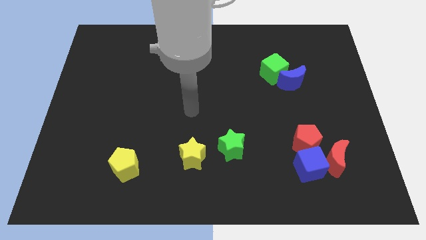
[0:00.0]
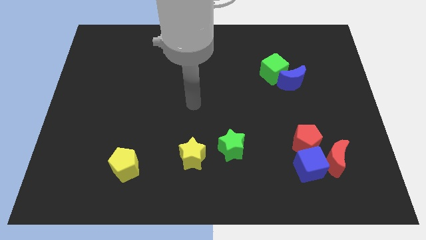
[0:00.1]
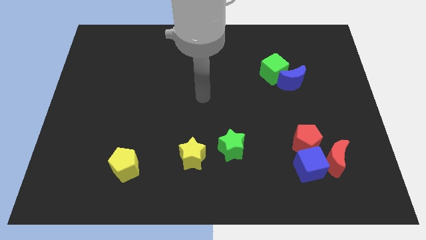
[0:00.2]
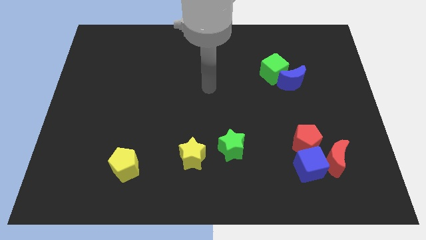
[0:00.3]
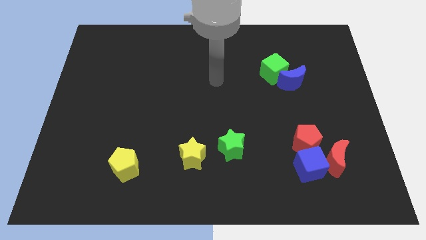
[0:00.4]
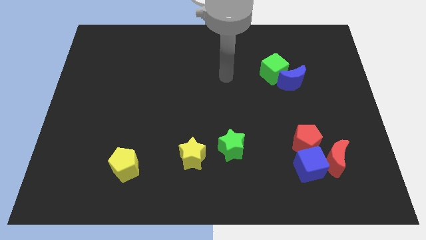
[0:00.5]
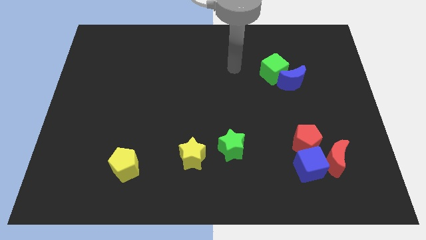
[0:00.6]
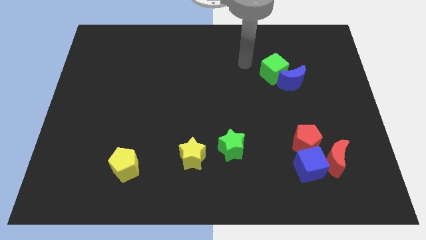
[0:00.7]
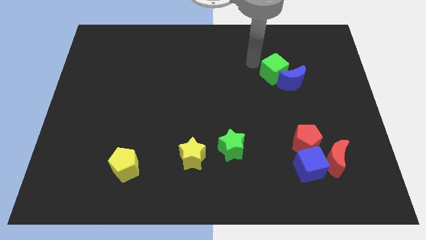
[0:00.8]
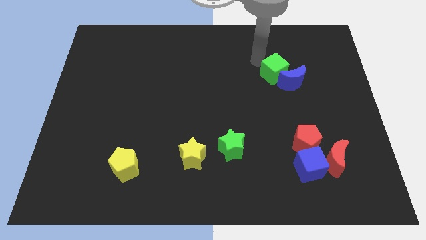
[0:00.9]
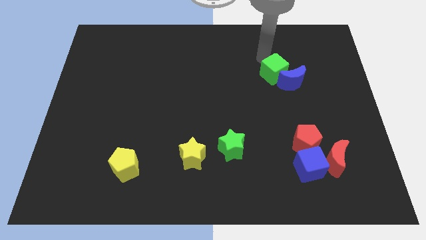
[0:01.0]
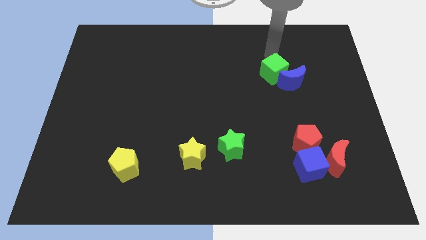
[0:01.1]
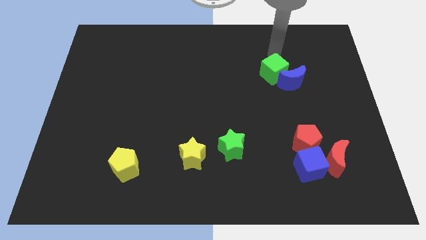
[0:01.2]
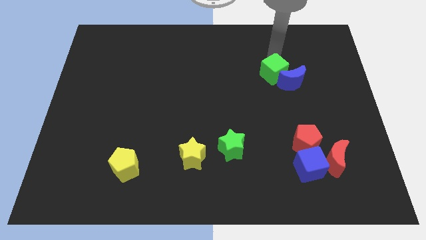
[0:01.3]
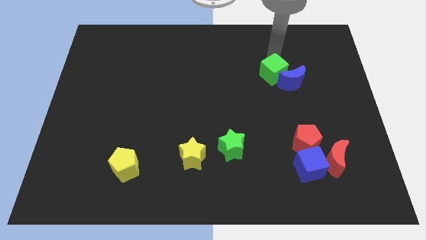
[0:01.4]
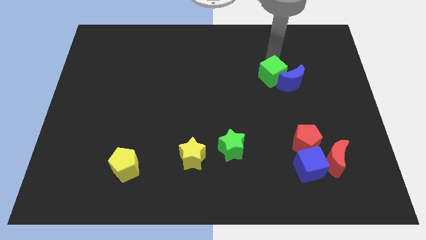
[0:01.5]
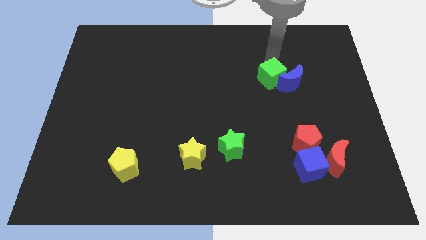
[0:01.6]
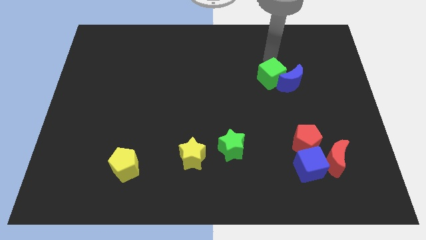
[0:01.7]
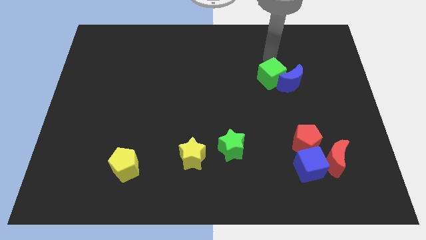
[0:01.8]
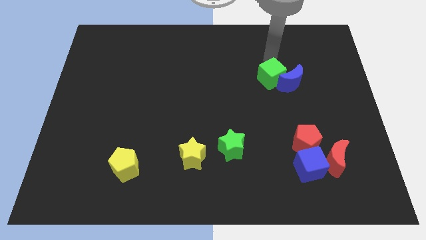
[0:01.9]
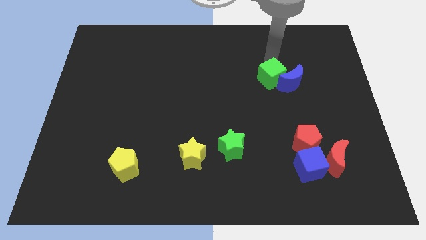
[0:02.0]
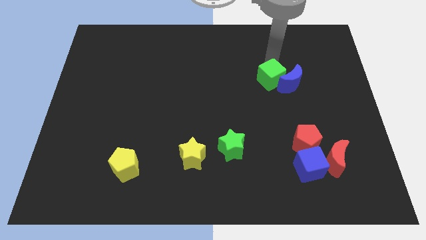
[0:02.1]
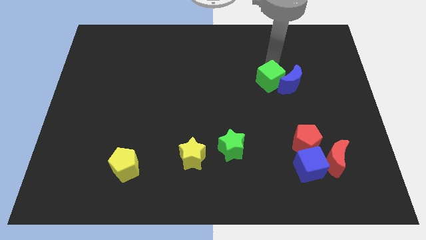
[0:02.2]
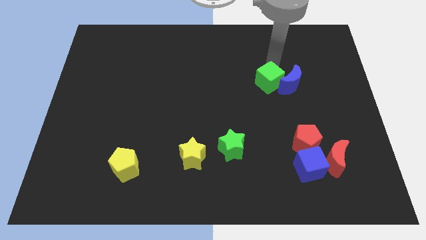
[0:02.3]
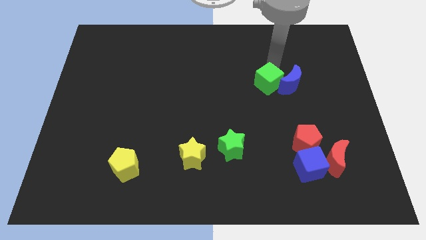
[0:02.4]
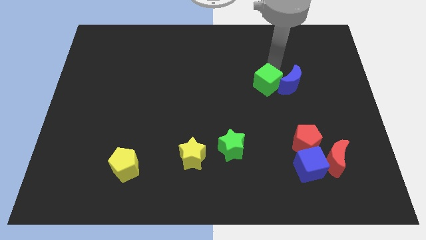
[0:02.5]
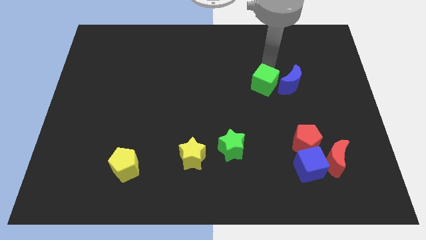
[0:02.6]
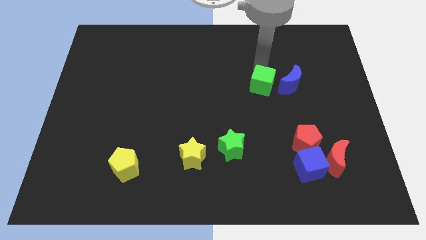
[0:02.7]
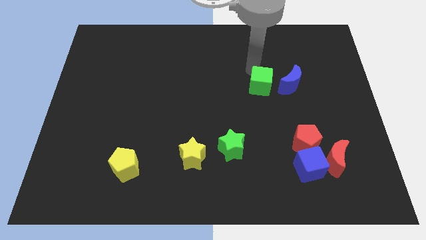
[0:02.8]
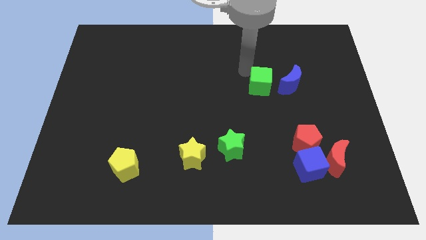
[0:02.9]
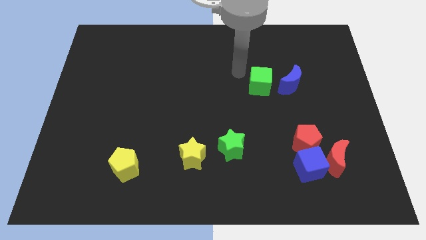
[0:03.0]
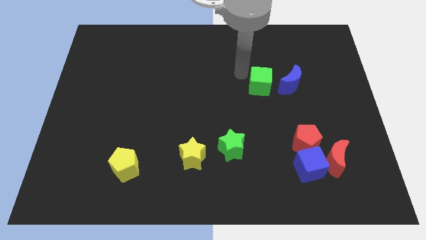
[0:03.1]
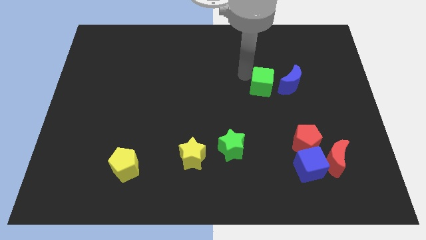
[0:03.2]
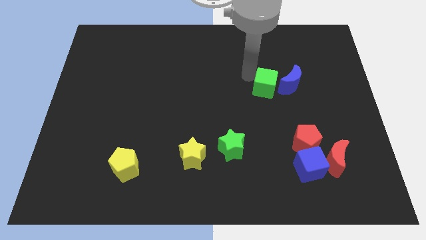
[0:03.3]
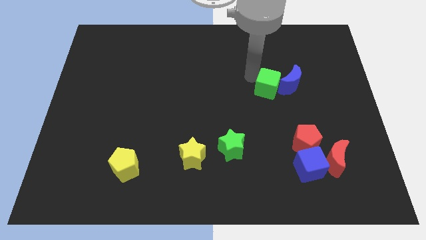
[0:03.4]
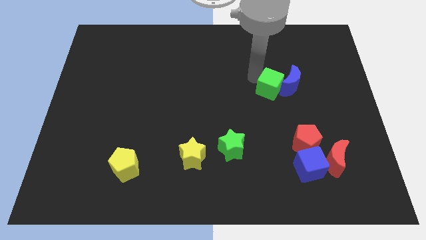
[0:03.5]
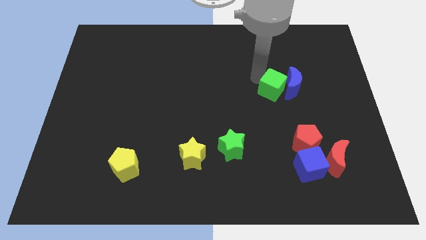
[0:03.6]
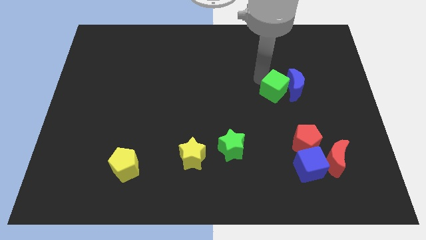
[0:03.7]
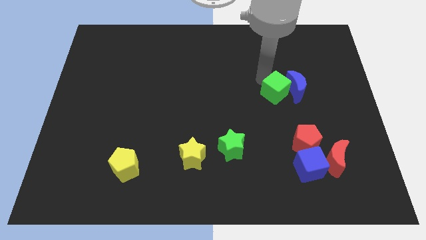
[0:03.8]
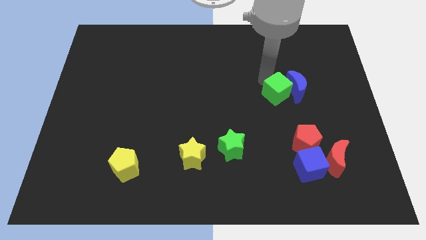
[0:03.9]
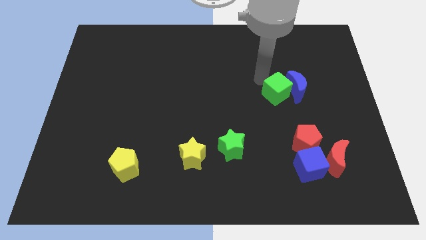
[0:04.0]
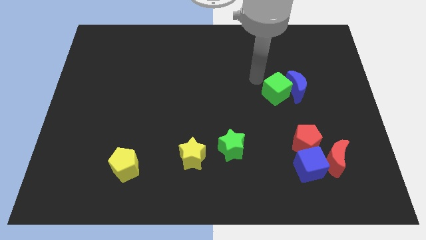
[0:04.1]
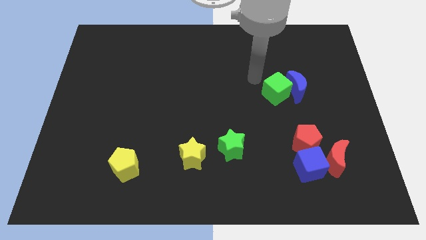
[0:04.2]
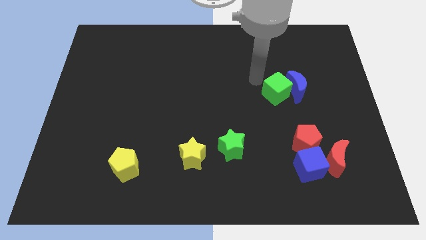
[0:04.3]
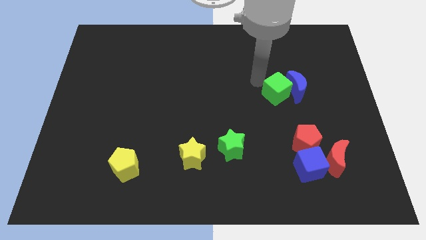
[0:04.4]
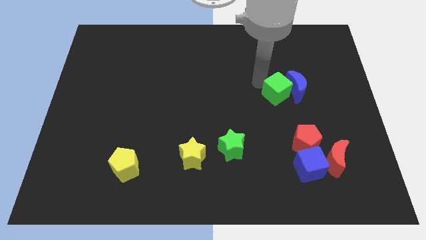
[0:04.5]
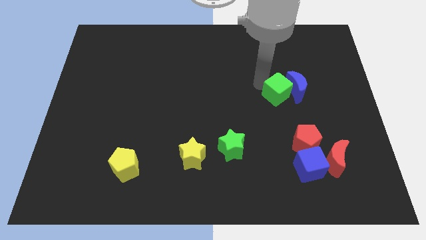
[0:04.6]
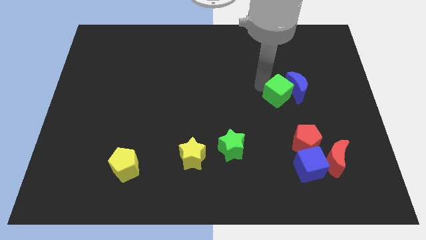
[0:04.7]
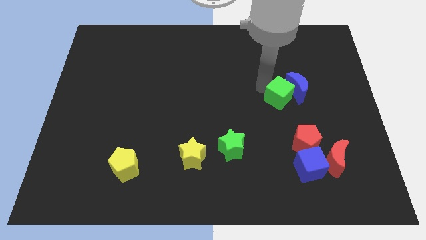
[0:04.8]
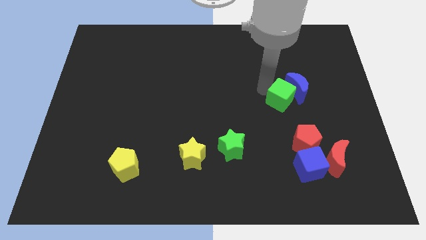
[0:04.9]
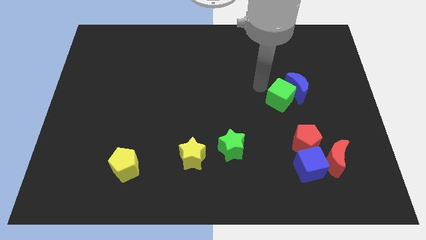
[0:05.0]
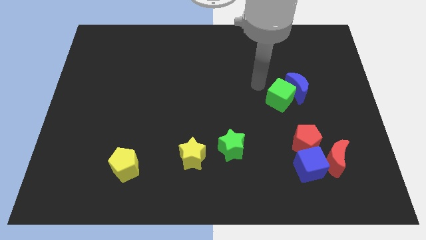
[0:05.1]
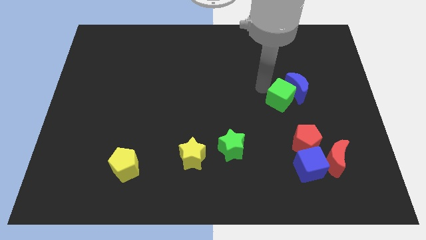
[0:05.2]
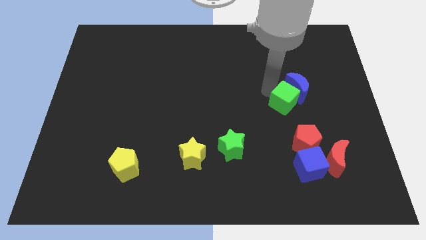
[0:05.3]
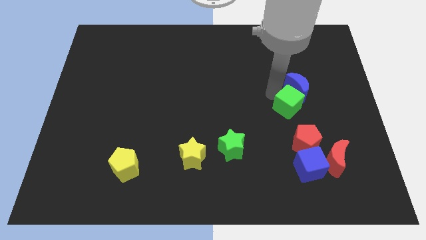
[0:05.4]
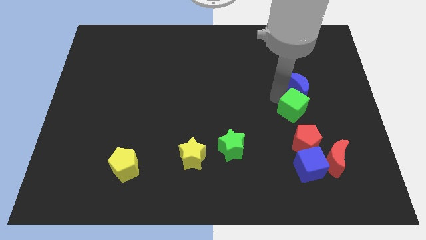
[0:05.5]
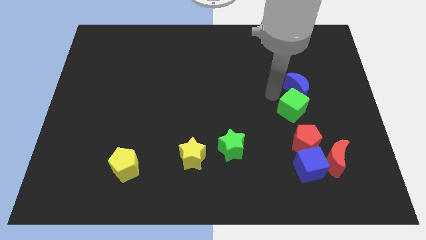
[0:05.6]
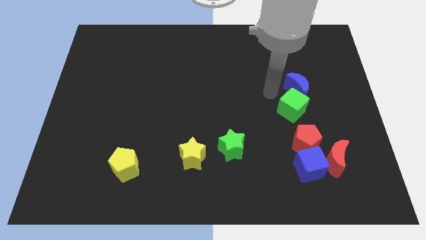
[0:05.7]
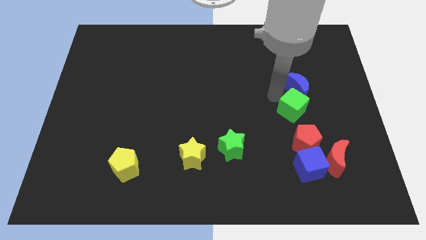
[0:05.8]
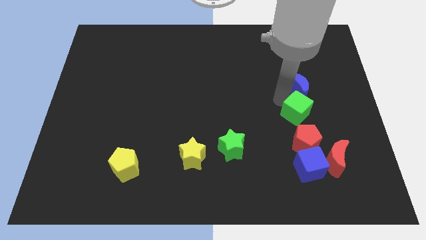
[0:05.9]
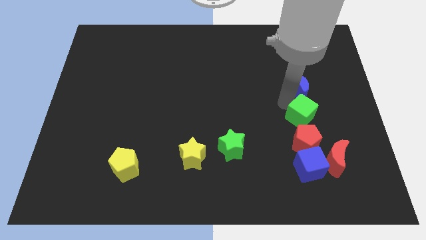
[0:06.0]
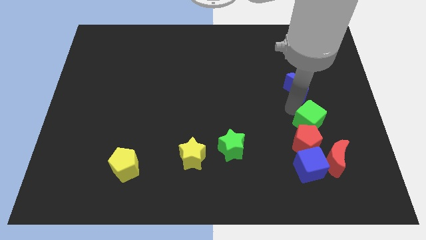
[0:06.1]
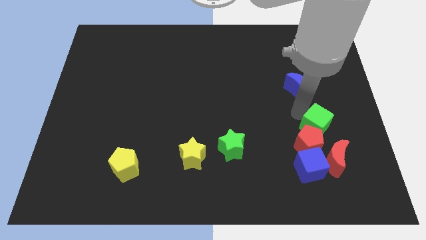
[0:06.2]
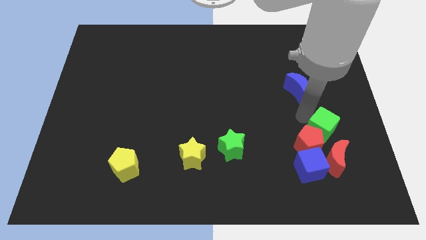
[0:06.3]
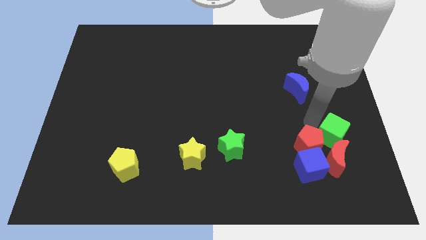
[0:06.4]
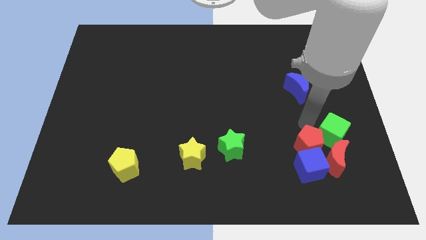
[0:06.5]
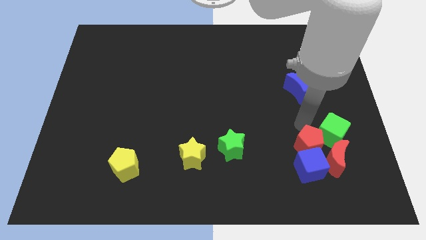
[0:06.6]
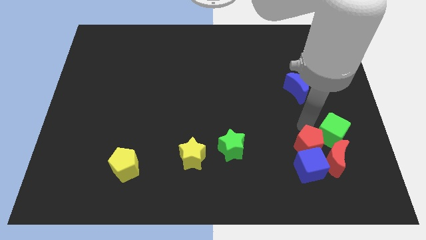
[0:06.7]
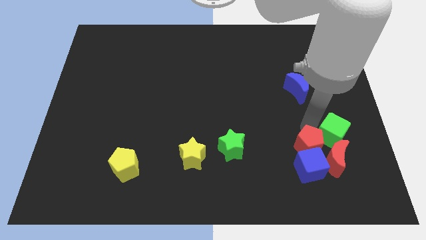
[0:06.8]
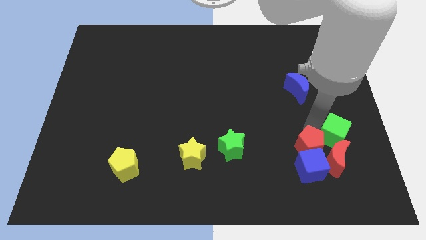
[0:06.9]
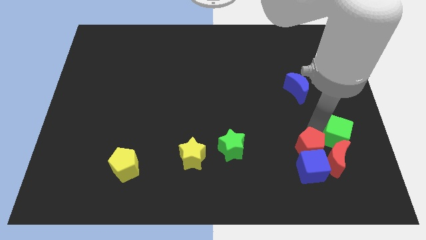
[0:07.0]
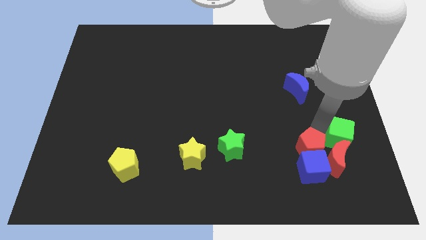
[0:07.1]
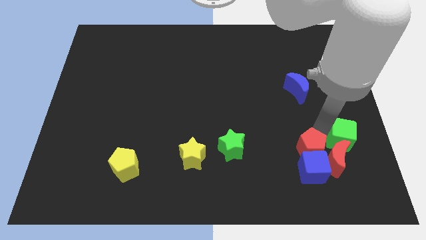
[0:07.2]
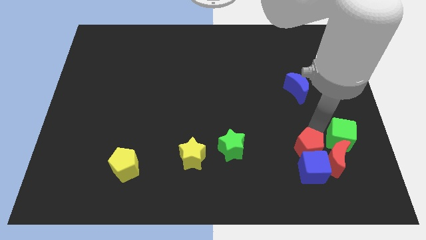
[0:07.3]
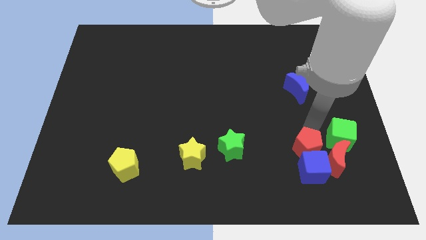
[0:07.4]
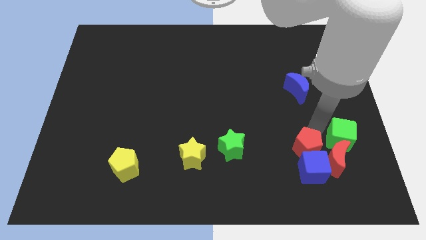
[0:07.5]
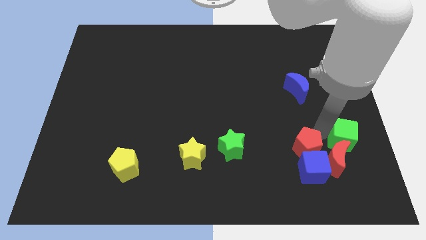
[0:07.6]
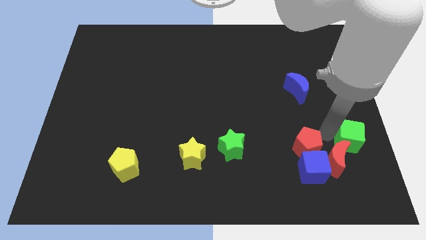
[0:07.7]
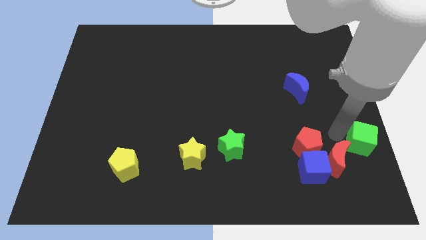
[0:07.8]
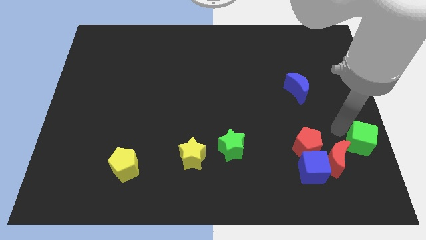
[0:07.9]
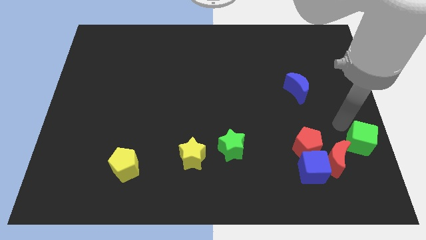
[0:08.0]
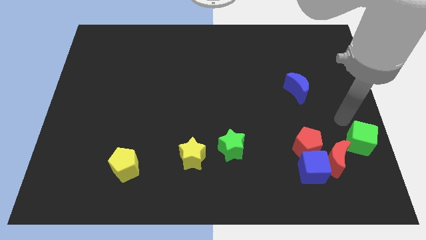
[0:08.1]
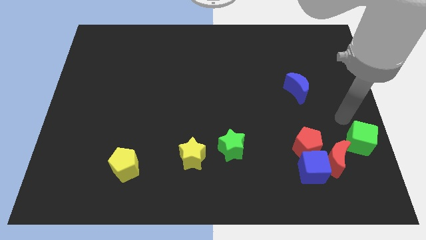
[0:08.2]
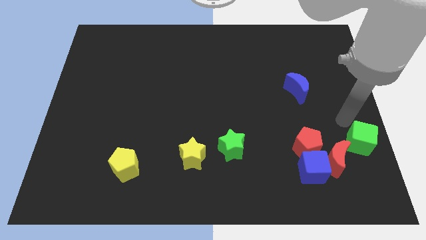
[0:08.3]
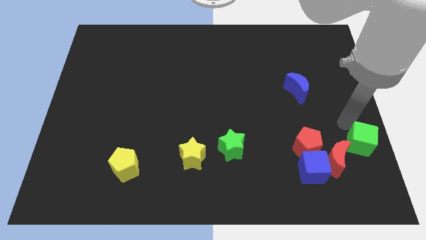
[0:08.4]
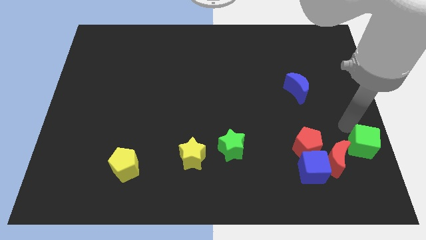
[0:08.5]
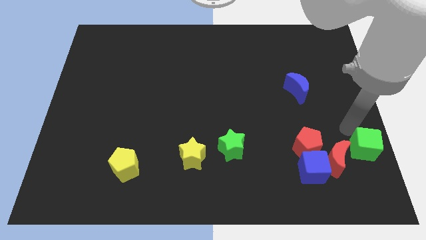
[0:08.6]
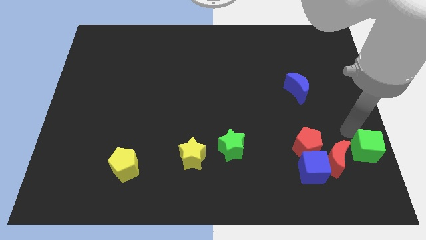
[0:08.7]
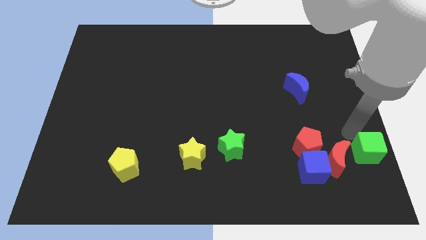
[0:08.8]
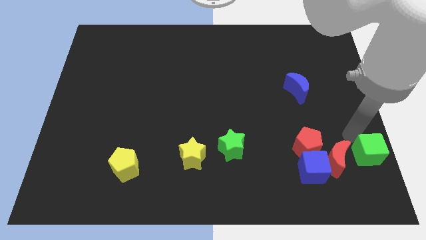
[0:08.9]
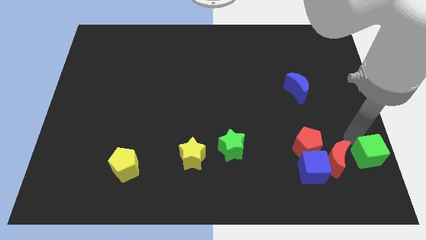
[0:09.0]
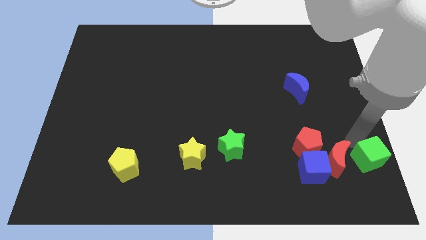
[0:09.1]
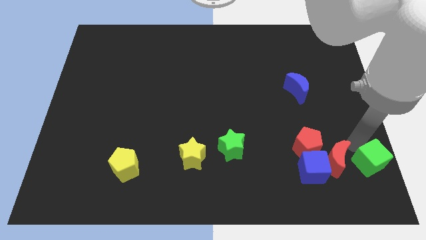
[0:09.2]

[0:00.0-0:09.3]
slide the green cube to the bottom right
